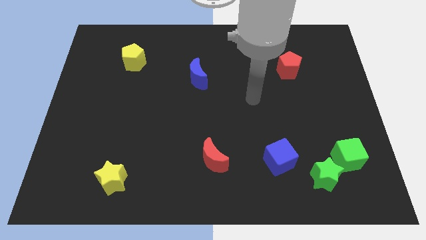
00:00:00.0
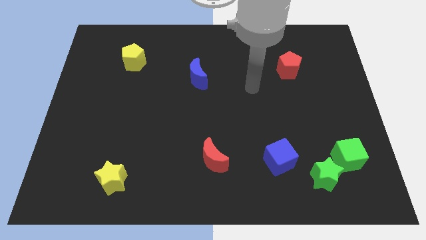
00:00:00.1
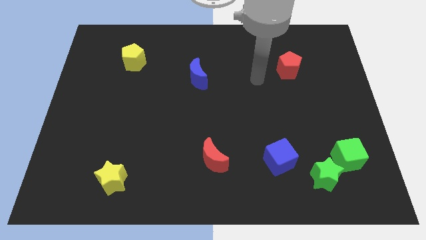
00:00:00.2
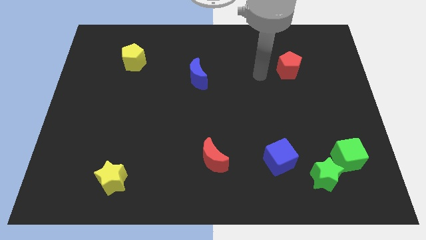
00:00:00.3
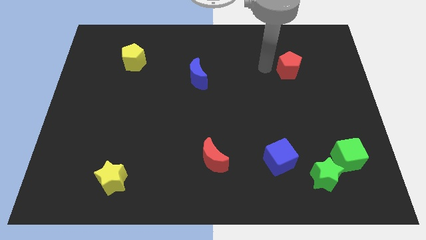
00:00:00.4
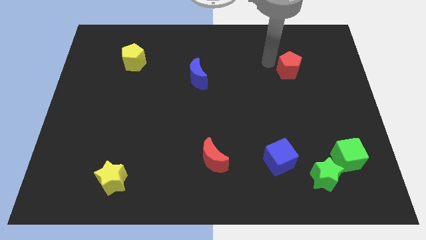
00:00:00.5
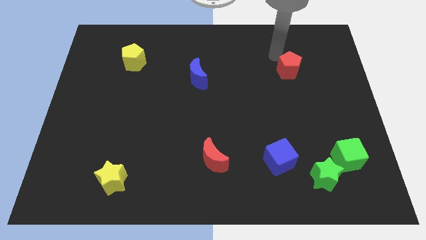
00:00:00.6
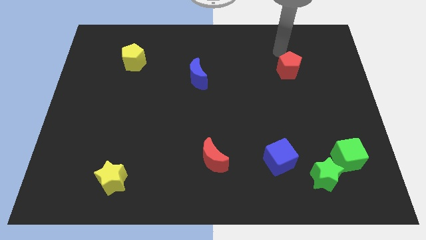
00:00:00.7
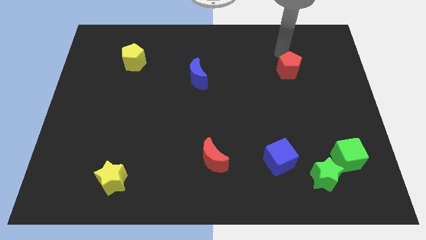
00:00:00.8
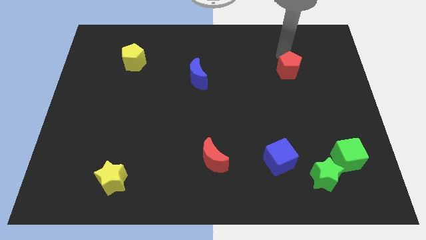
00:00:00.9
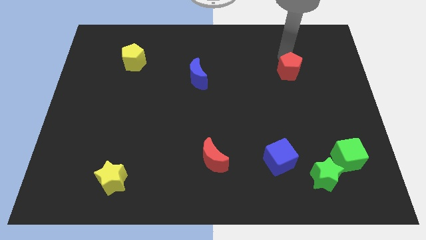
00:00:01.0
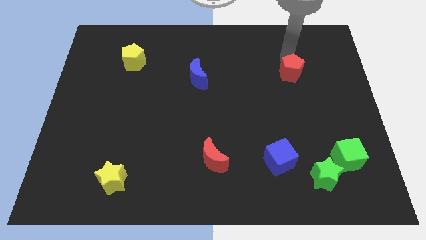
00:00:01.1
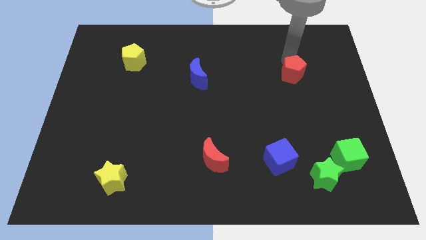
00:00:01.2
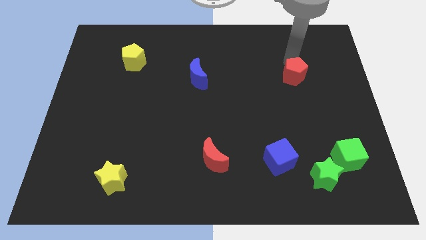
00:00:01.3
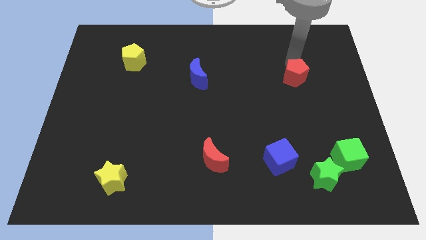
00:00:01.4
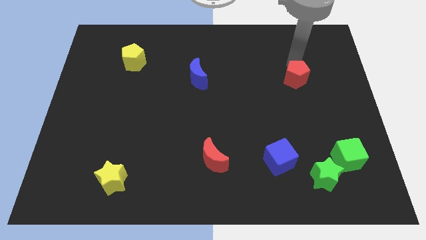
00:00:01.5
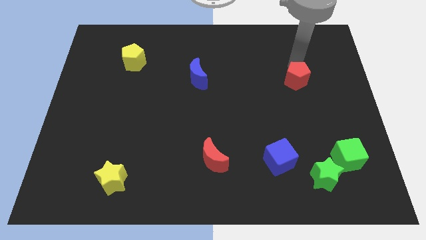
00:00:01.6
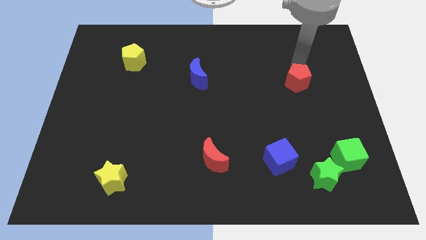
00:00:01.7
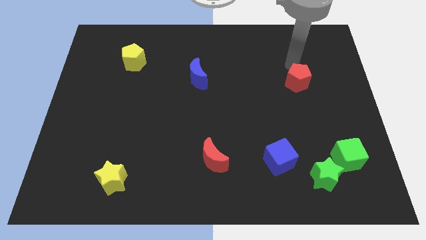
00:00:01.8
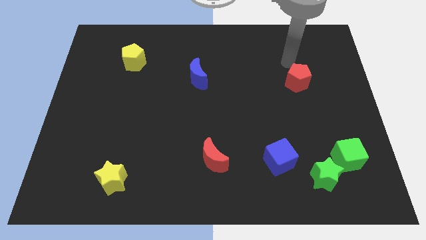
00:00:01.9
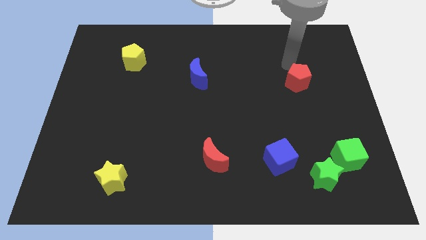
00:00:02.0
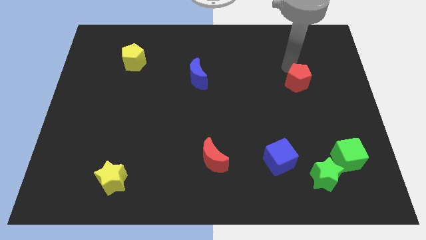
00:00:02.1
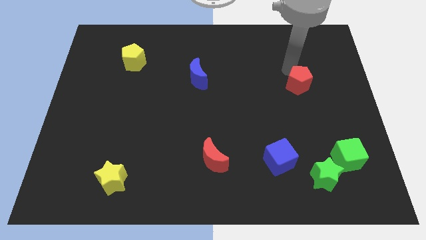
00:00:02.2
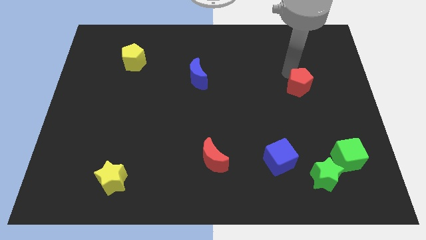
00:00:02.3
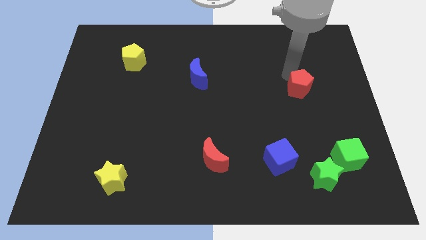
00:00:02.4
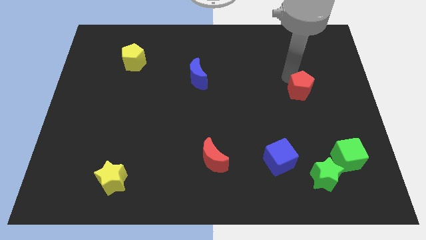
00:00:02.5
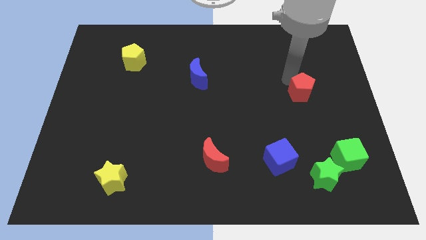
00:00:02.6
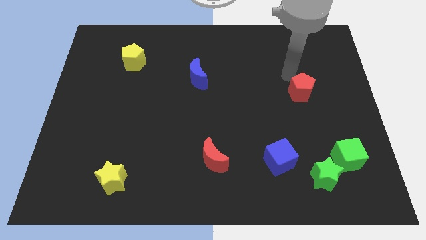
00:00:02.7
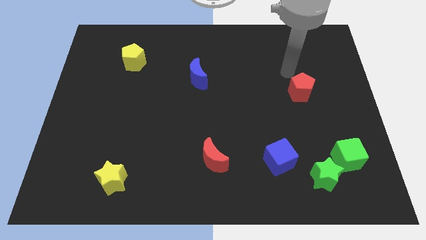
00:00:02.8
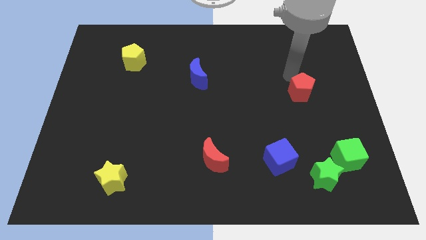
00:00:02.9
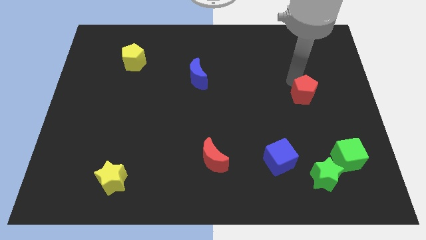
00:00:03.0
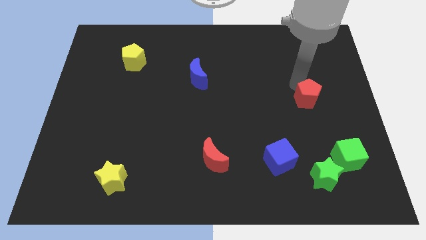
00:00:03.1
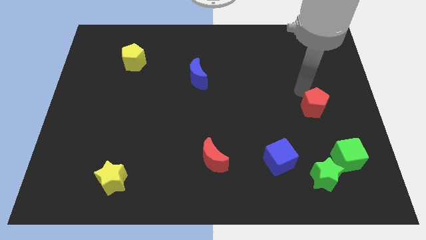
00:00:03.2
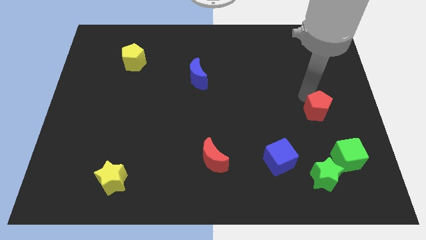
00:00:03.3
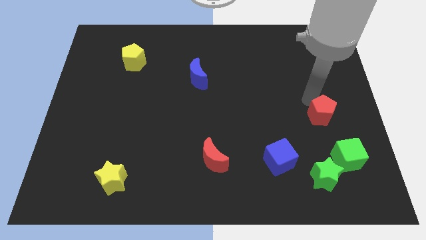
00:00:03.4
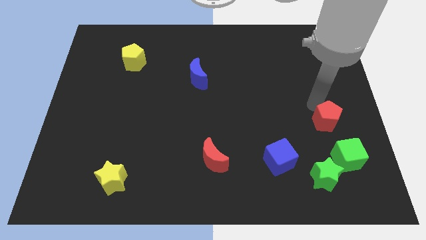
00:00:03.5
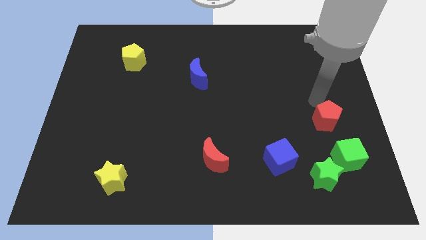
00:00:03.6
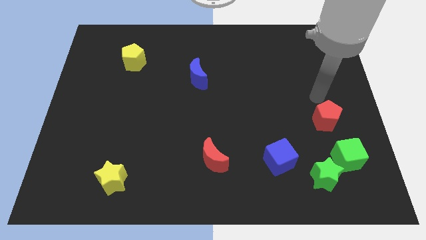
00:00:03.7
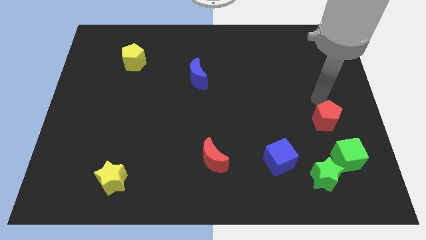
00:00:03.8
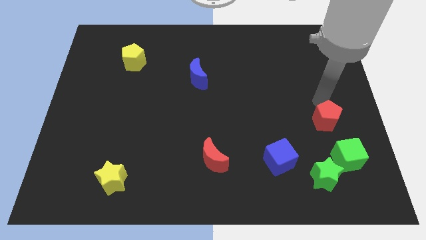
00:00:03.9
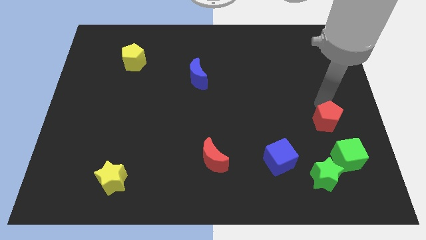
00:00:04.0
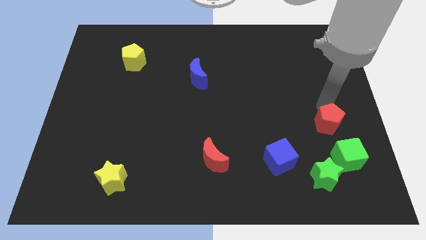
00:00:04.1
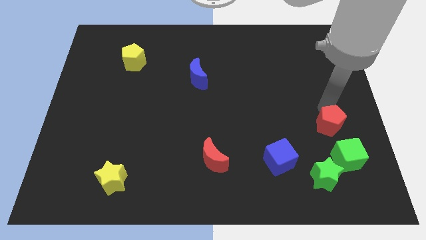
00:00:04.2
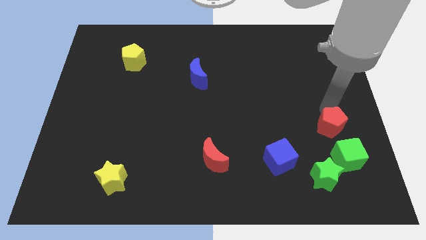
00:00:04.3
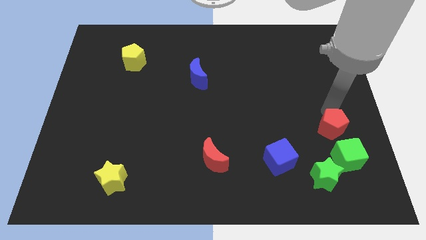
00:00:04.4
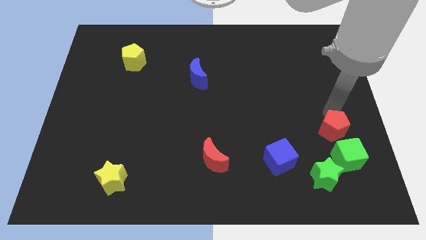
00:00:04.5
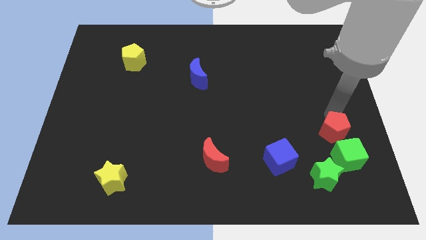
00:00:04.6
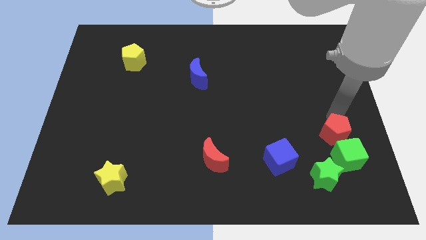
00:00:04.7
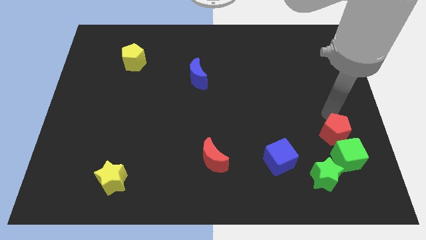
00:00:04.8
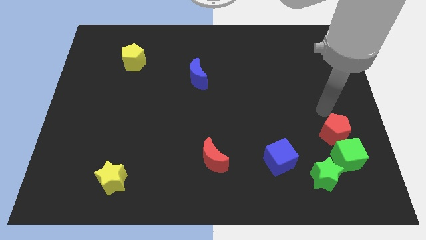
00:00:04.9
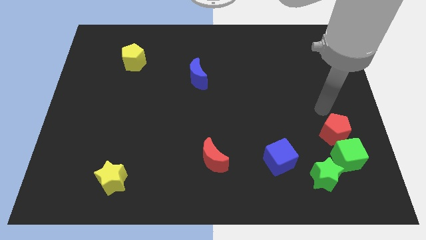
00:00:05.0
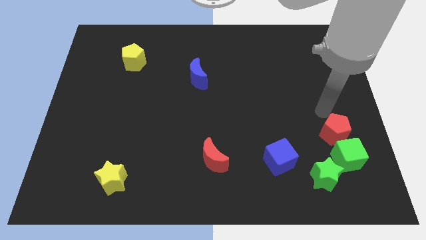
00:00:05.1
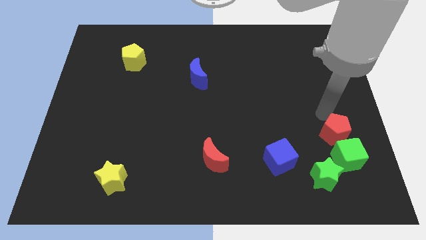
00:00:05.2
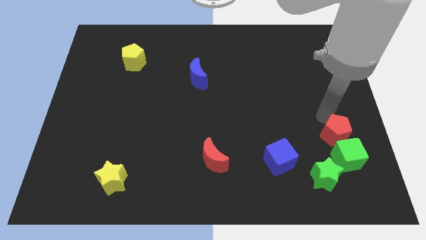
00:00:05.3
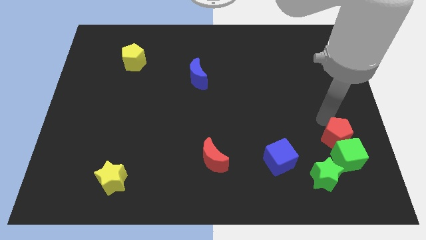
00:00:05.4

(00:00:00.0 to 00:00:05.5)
put the red pentagon towards the green cube

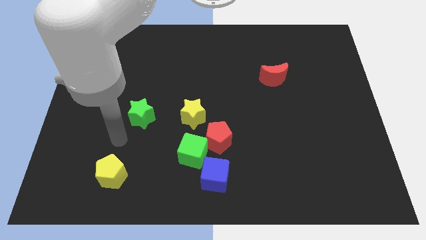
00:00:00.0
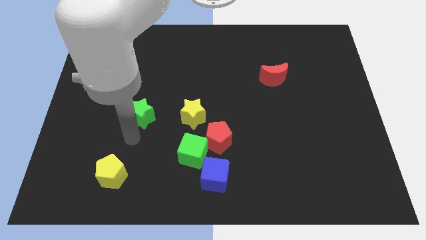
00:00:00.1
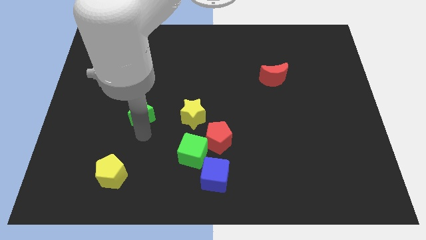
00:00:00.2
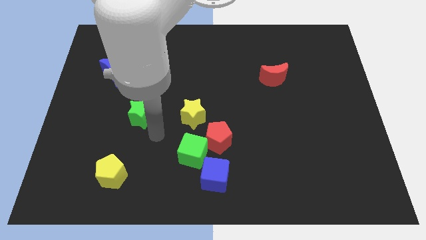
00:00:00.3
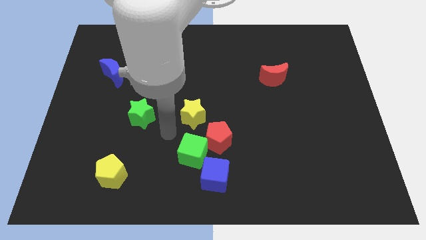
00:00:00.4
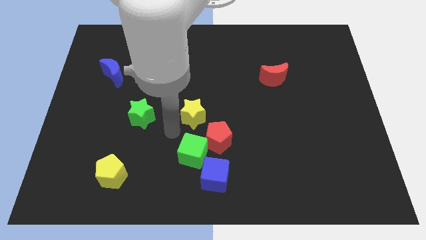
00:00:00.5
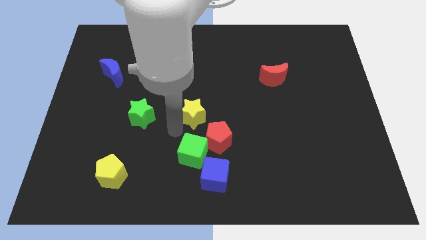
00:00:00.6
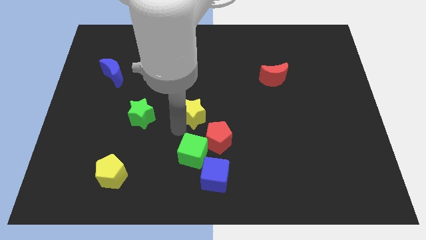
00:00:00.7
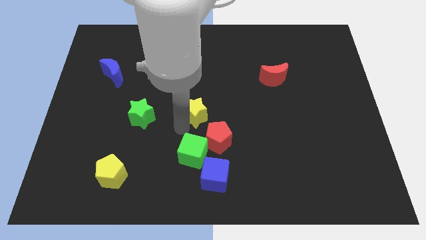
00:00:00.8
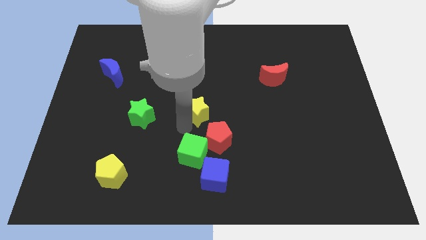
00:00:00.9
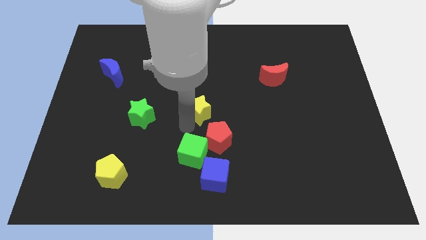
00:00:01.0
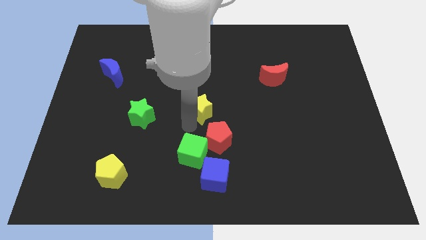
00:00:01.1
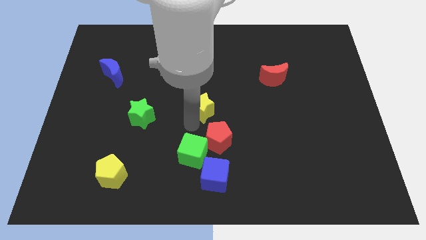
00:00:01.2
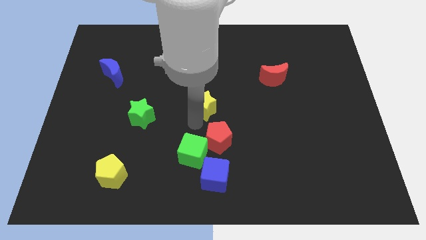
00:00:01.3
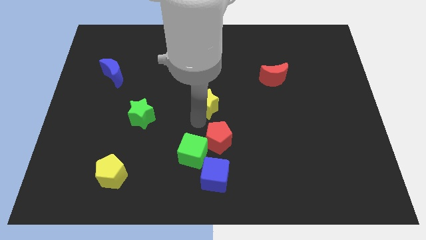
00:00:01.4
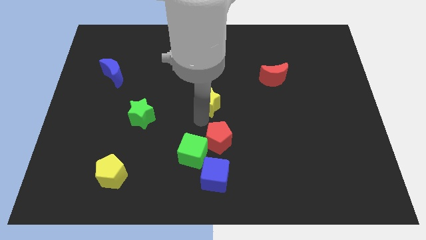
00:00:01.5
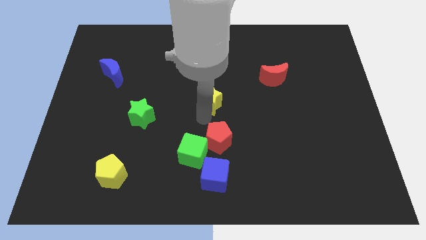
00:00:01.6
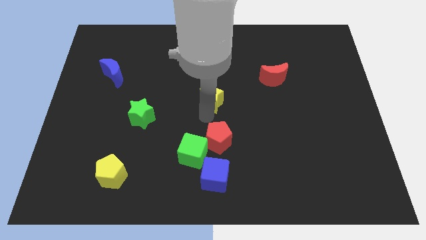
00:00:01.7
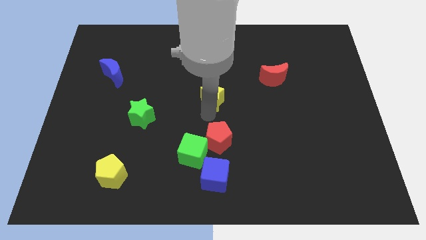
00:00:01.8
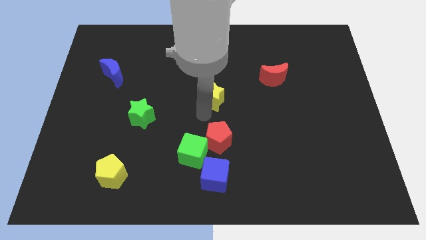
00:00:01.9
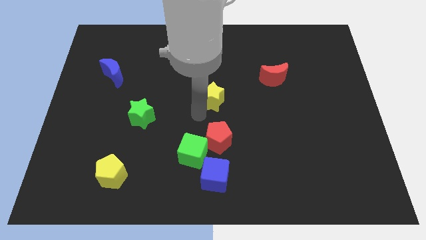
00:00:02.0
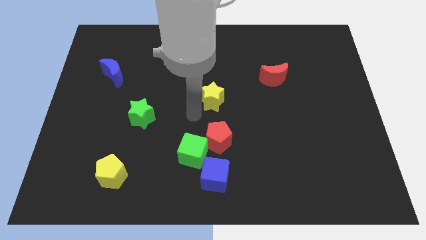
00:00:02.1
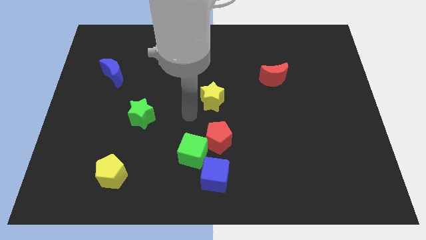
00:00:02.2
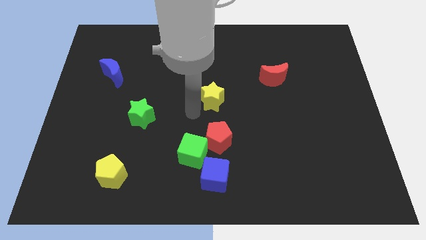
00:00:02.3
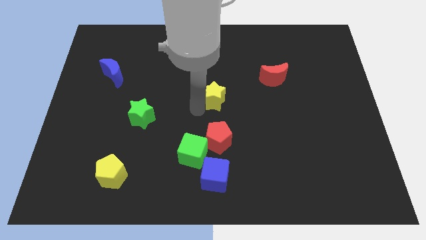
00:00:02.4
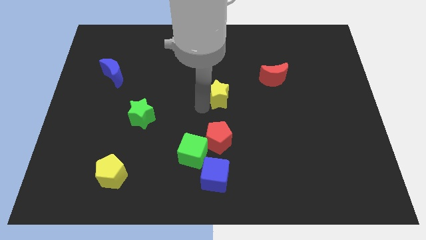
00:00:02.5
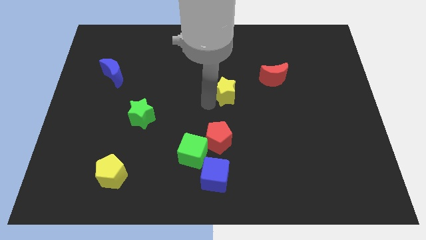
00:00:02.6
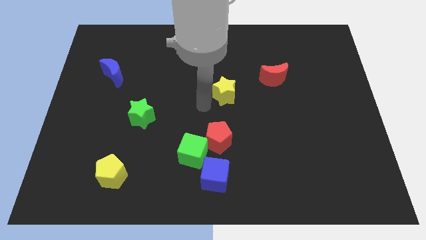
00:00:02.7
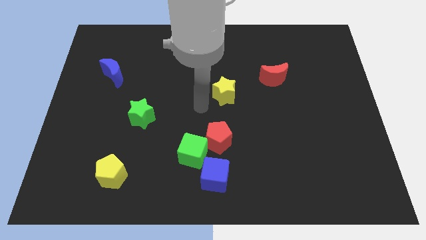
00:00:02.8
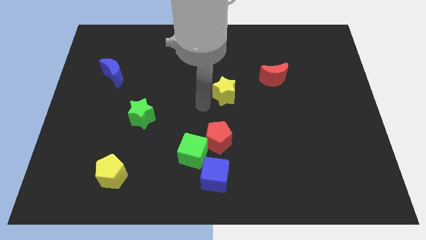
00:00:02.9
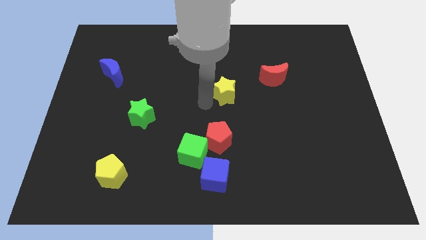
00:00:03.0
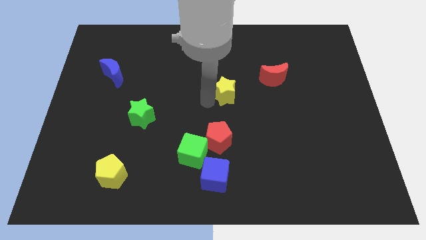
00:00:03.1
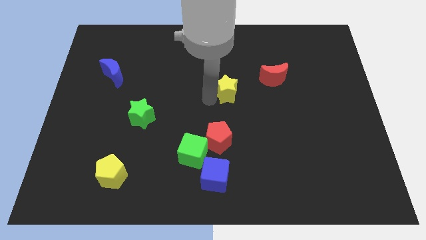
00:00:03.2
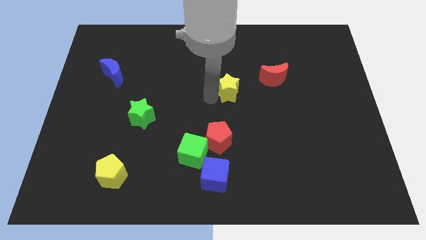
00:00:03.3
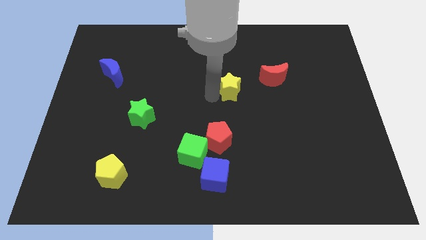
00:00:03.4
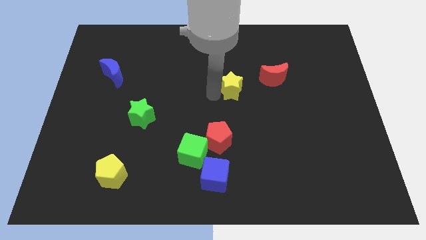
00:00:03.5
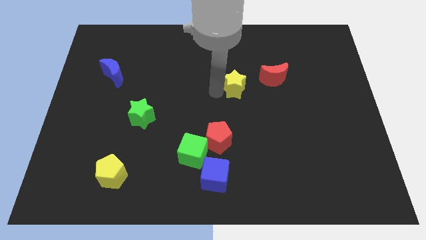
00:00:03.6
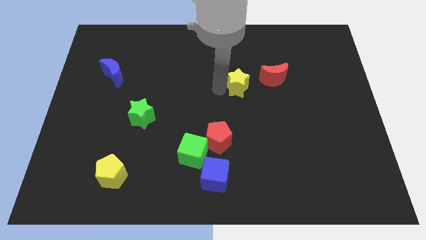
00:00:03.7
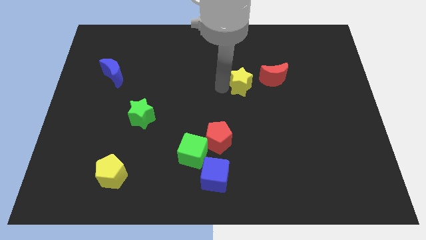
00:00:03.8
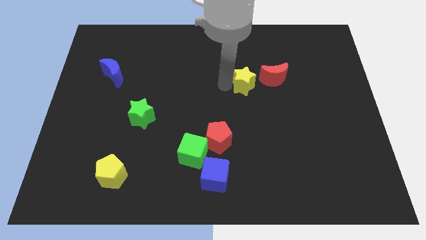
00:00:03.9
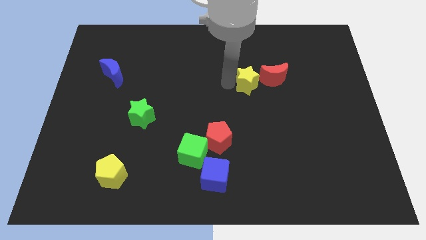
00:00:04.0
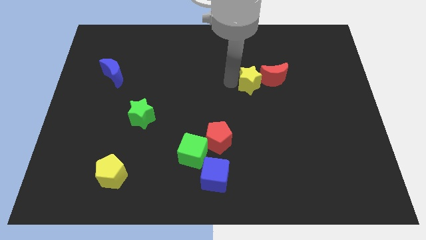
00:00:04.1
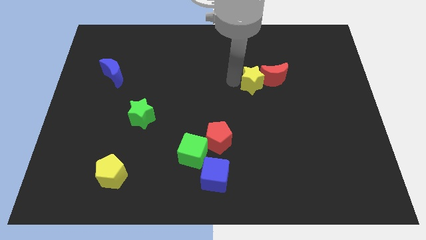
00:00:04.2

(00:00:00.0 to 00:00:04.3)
push the yellow star to the red moon
